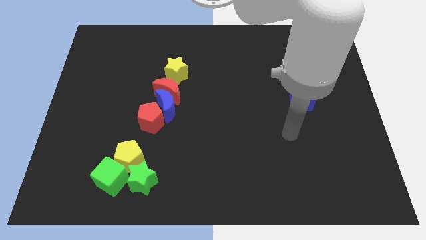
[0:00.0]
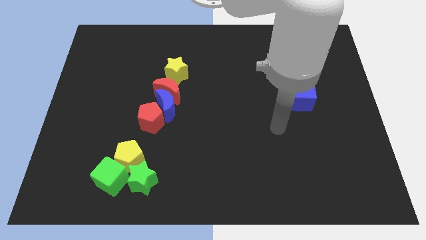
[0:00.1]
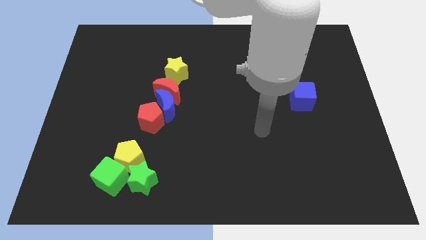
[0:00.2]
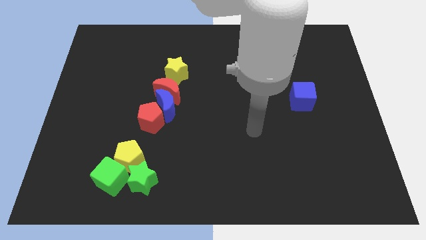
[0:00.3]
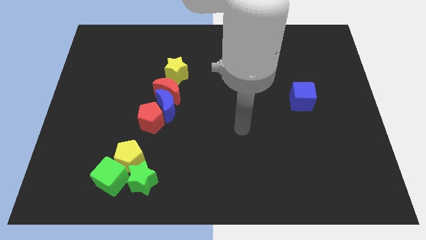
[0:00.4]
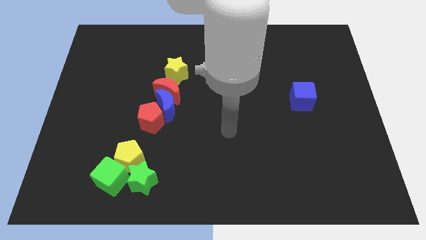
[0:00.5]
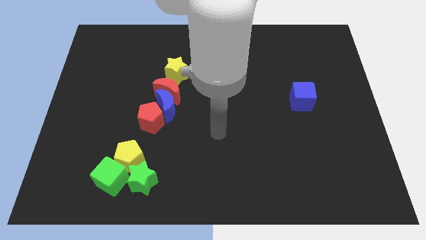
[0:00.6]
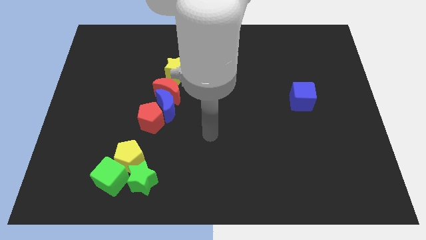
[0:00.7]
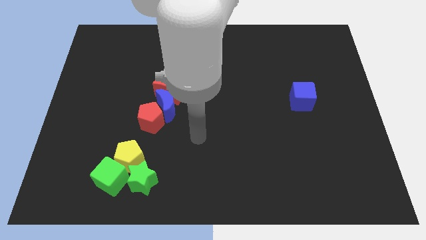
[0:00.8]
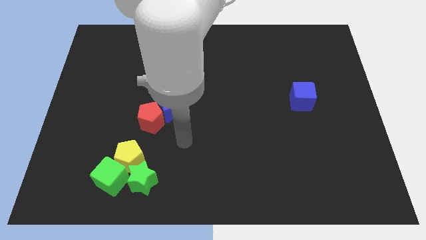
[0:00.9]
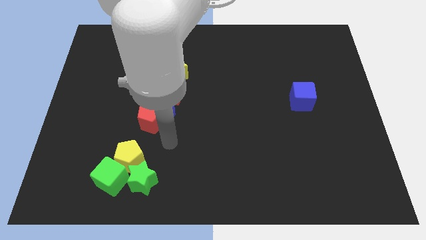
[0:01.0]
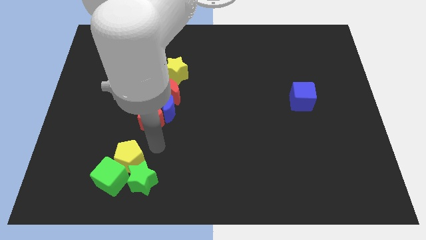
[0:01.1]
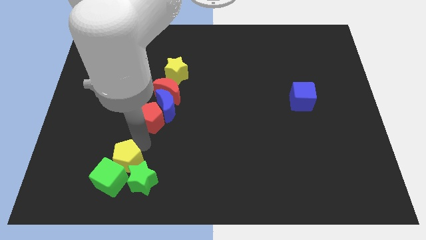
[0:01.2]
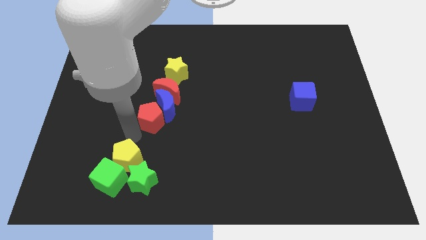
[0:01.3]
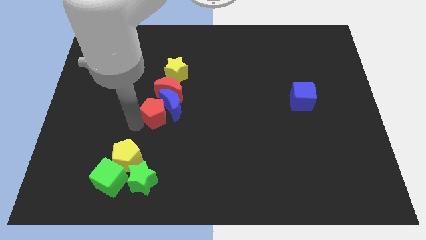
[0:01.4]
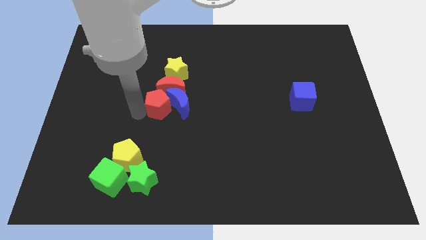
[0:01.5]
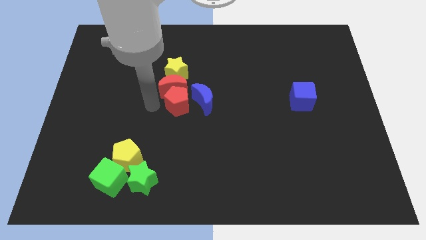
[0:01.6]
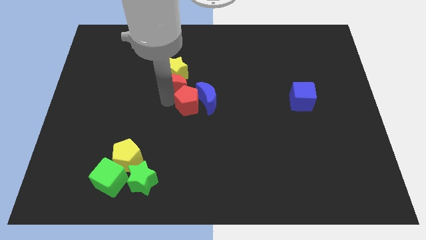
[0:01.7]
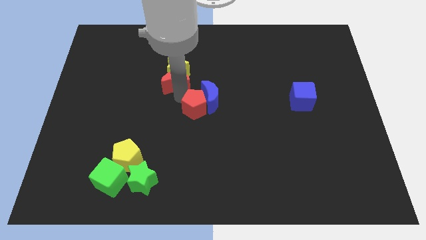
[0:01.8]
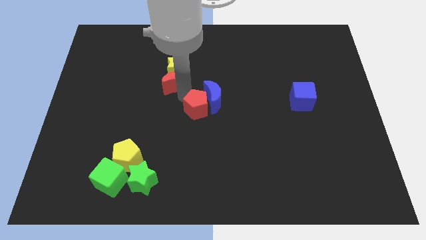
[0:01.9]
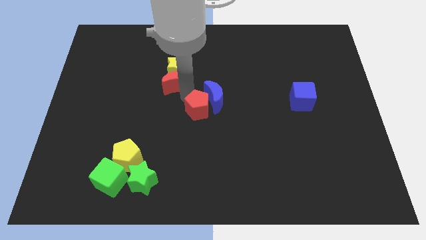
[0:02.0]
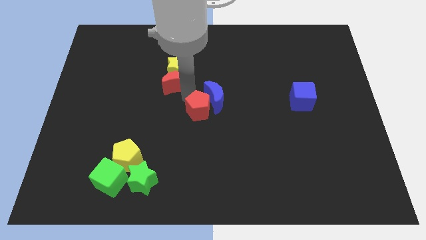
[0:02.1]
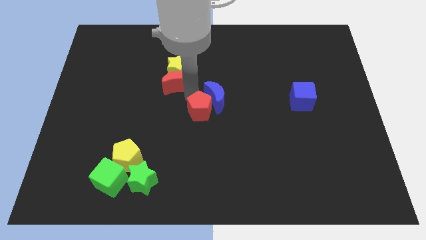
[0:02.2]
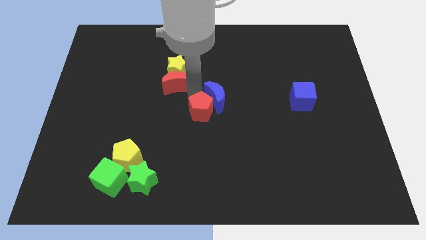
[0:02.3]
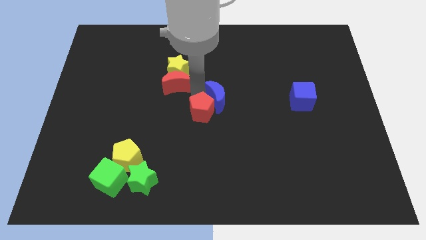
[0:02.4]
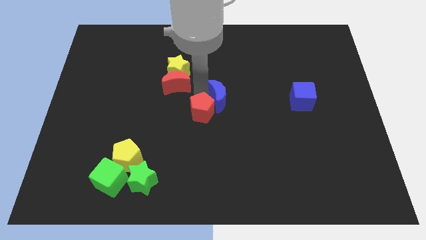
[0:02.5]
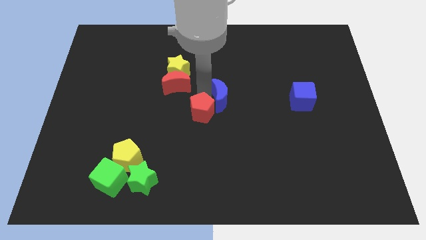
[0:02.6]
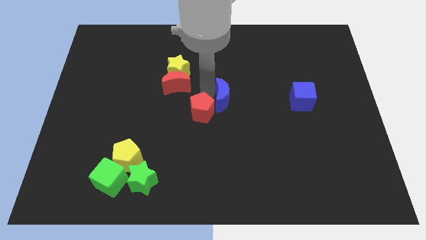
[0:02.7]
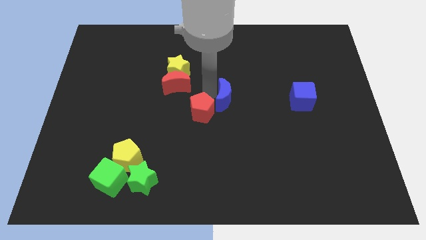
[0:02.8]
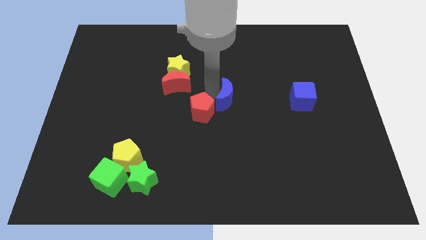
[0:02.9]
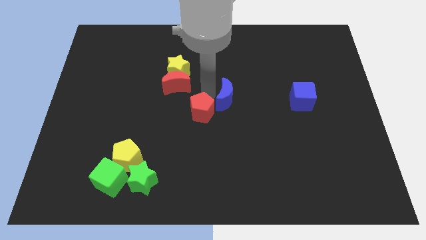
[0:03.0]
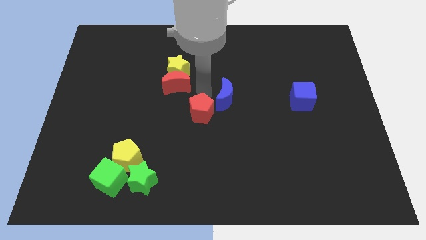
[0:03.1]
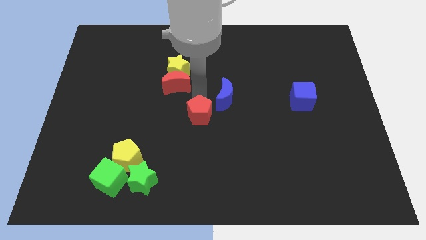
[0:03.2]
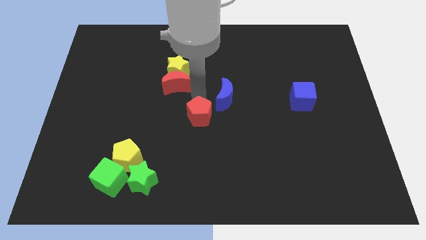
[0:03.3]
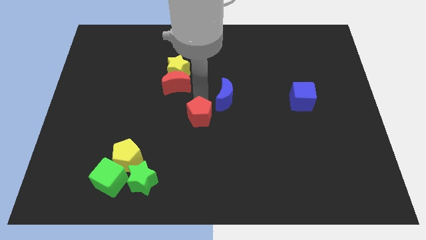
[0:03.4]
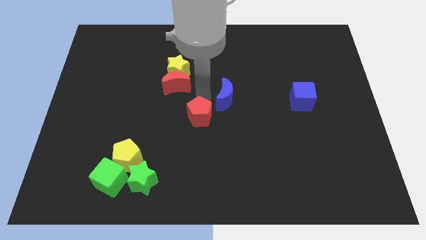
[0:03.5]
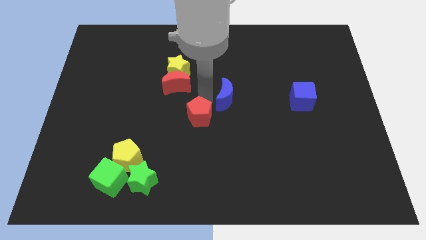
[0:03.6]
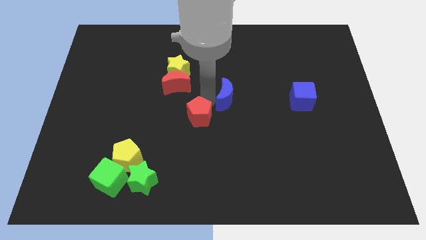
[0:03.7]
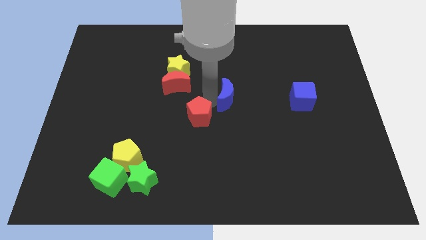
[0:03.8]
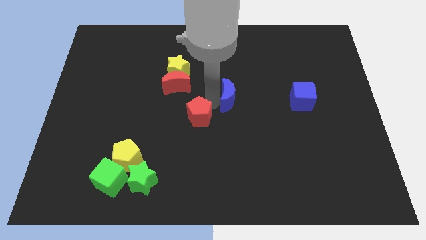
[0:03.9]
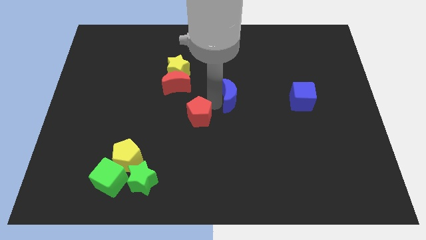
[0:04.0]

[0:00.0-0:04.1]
pull the blue moon apart from the red moon and red pentagon

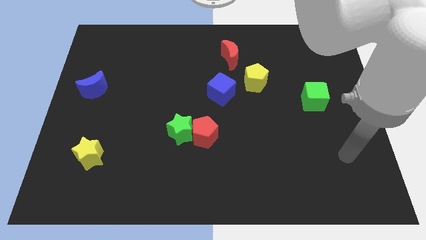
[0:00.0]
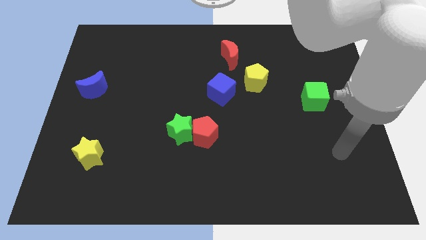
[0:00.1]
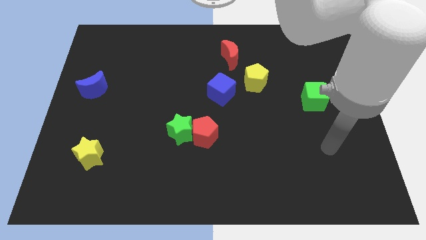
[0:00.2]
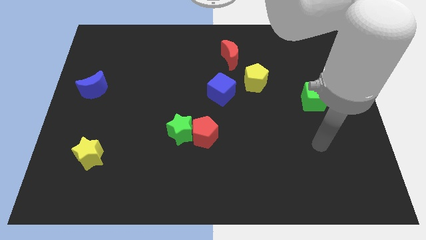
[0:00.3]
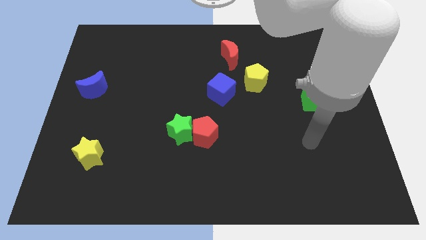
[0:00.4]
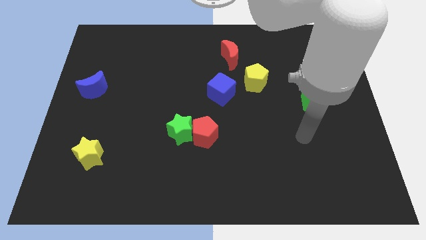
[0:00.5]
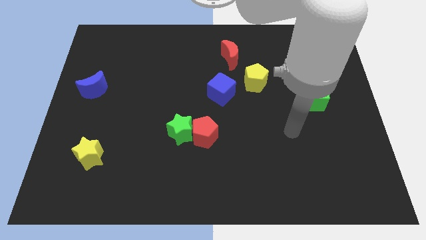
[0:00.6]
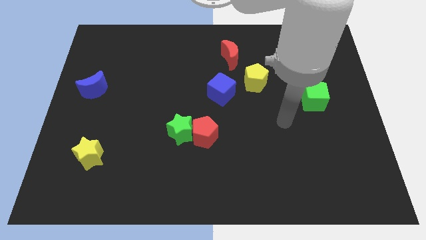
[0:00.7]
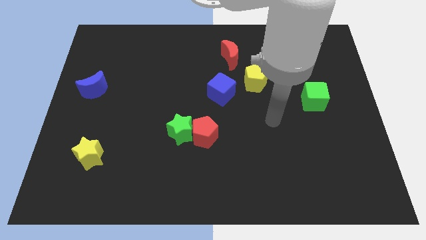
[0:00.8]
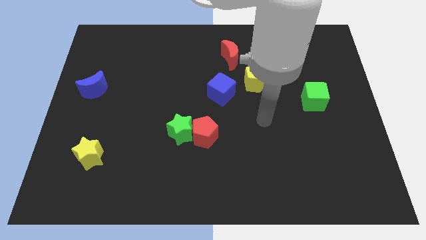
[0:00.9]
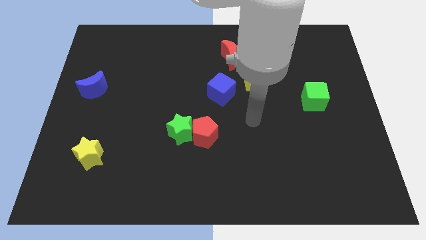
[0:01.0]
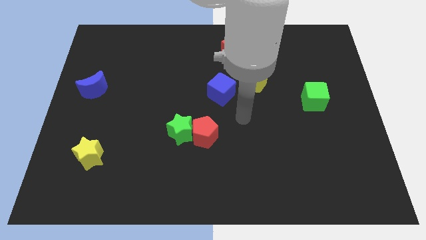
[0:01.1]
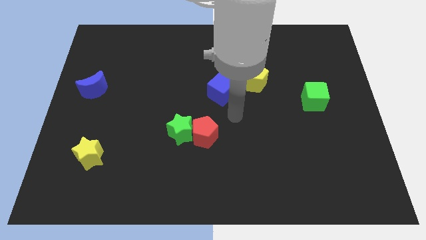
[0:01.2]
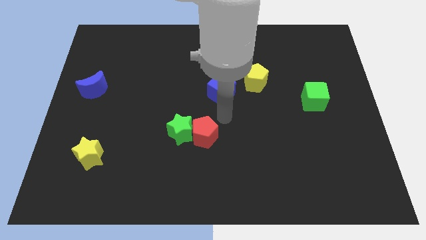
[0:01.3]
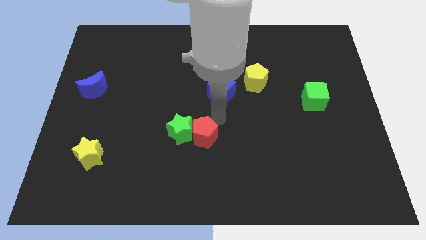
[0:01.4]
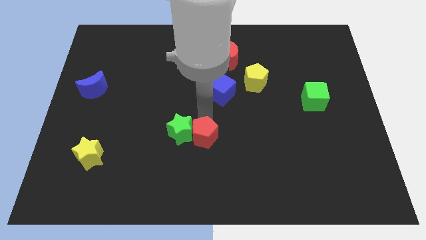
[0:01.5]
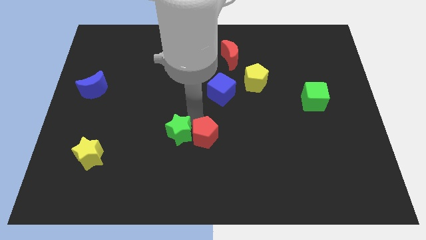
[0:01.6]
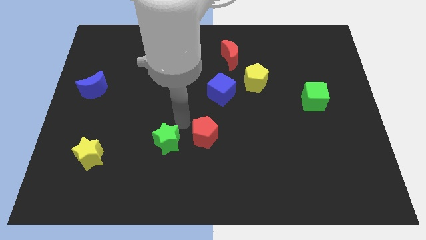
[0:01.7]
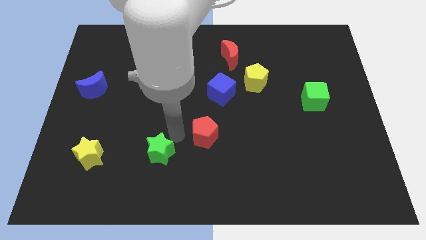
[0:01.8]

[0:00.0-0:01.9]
move the red pentagon away from the green star

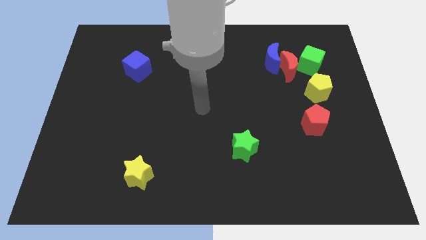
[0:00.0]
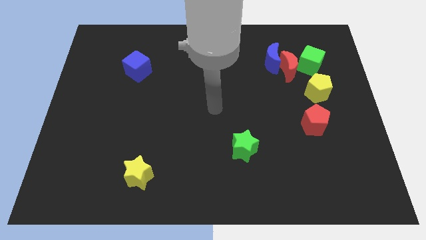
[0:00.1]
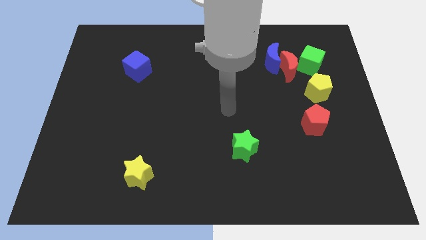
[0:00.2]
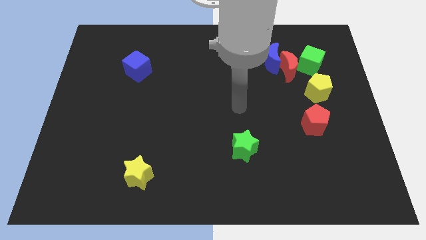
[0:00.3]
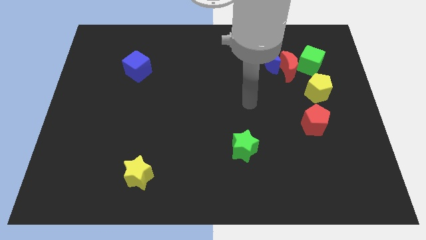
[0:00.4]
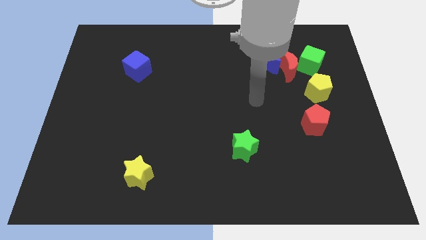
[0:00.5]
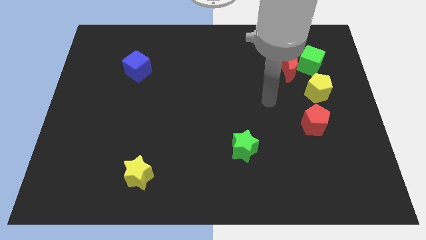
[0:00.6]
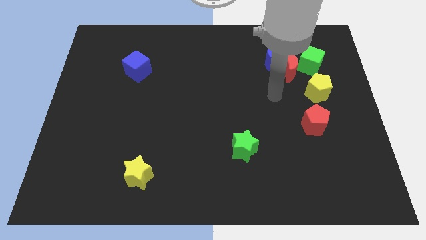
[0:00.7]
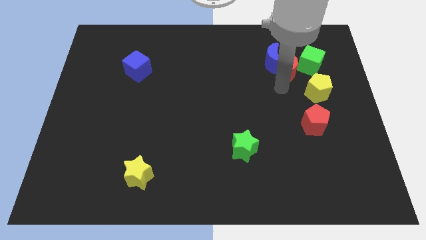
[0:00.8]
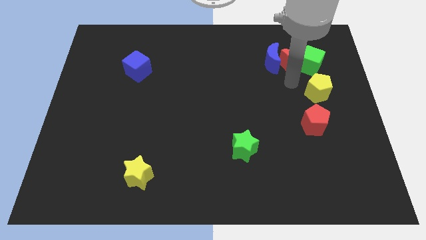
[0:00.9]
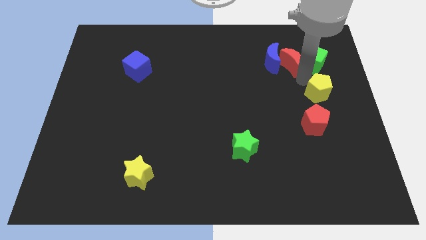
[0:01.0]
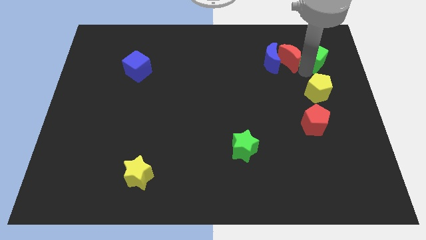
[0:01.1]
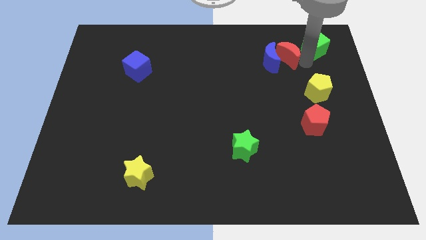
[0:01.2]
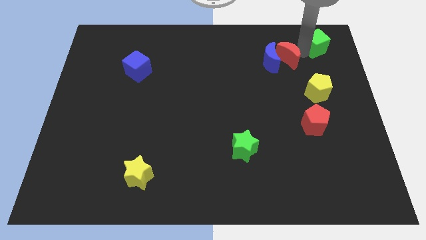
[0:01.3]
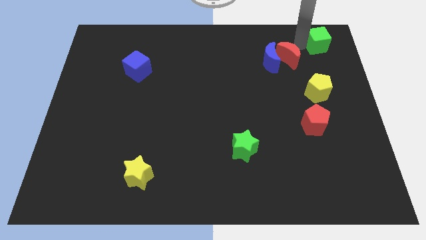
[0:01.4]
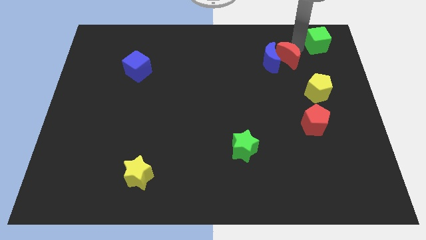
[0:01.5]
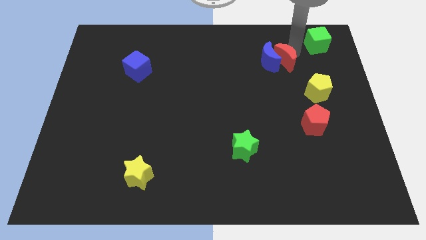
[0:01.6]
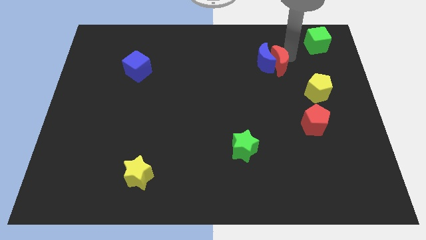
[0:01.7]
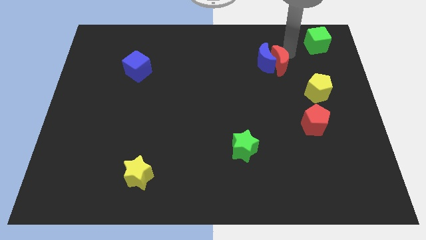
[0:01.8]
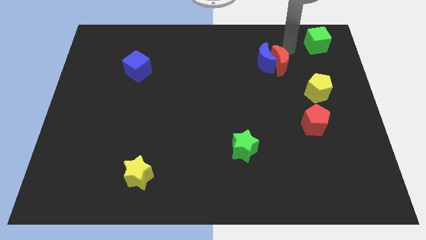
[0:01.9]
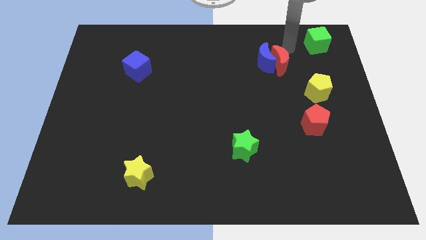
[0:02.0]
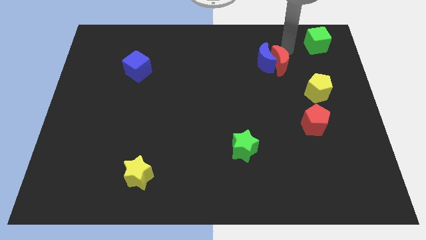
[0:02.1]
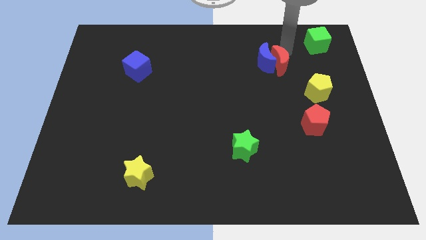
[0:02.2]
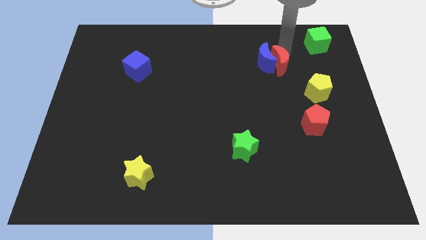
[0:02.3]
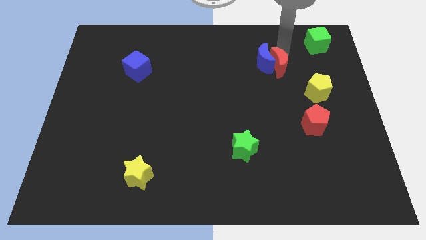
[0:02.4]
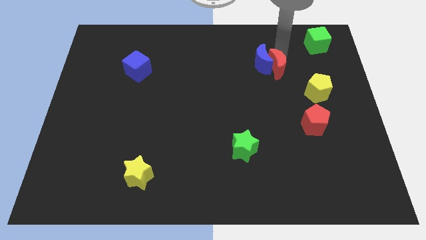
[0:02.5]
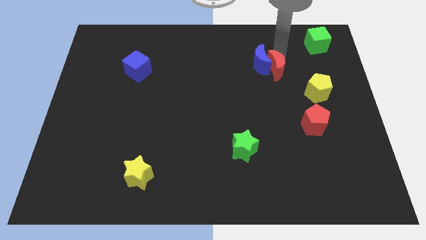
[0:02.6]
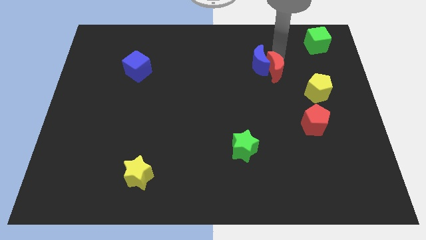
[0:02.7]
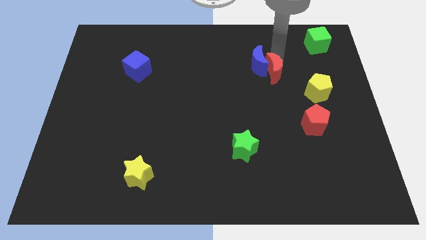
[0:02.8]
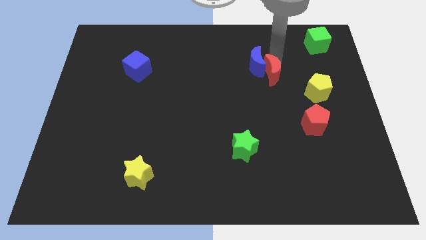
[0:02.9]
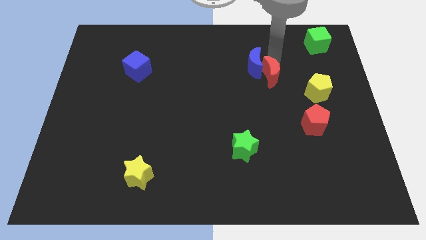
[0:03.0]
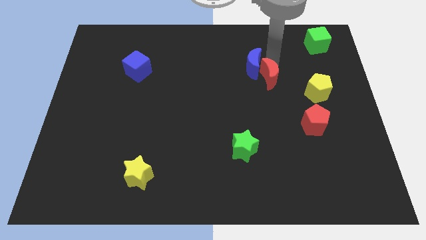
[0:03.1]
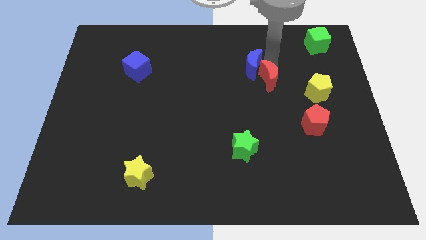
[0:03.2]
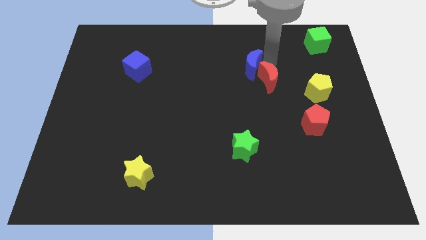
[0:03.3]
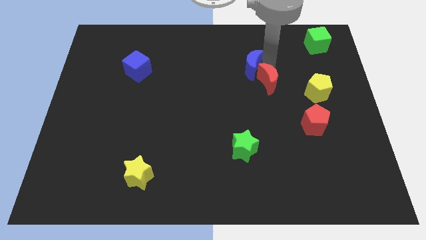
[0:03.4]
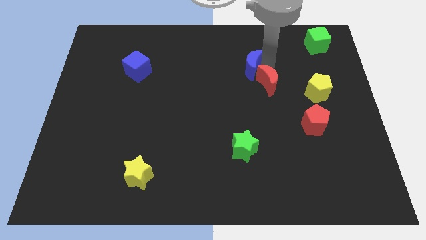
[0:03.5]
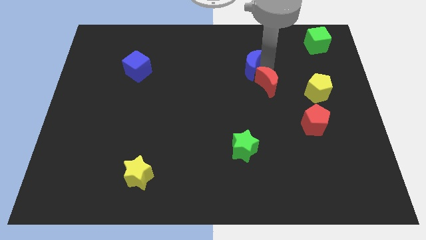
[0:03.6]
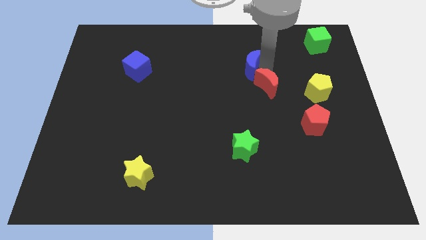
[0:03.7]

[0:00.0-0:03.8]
move the red moon away from the blue moon, green cube, and yellow pentagon
